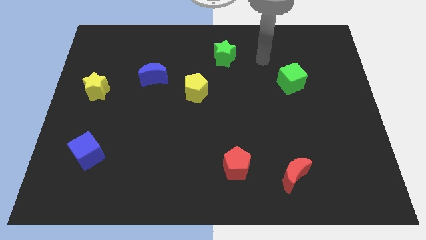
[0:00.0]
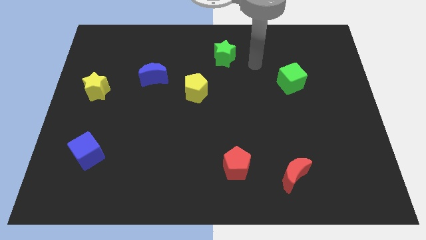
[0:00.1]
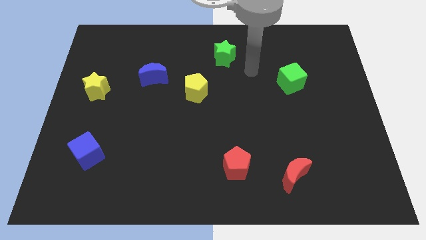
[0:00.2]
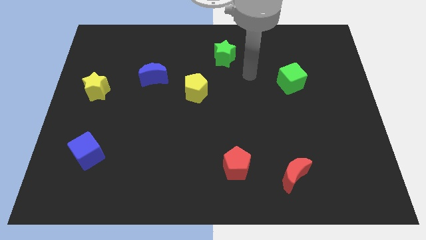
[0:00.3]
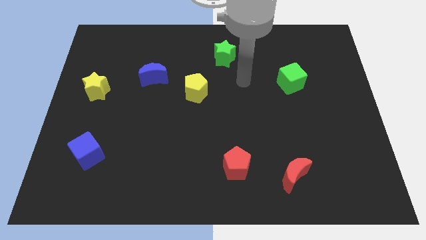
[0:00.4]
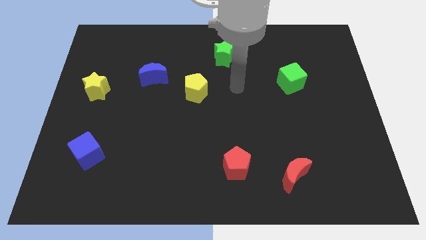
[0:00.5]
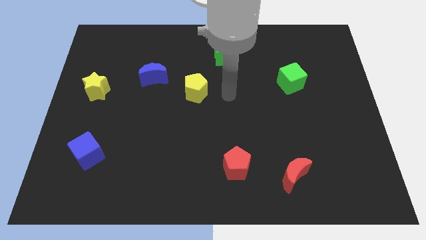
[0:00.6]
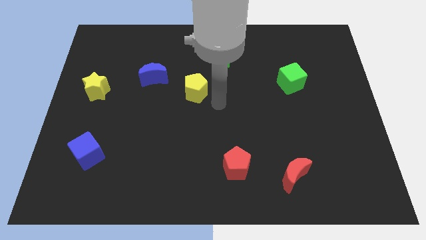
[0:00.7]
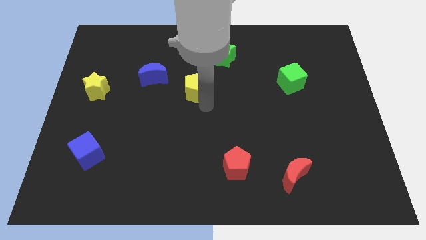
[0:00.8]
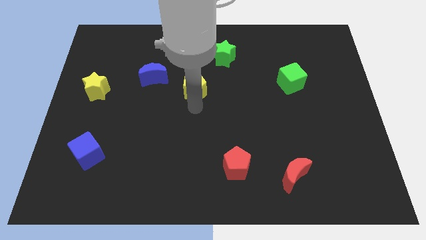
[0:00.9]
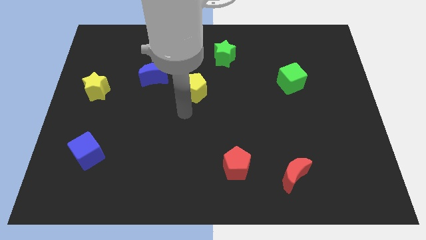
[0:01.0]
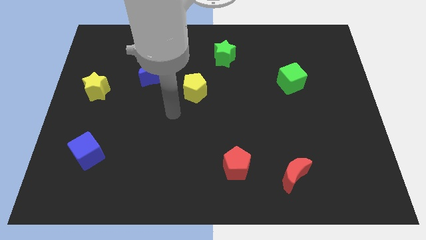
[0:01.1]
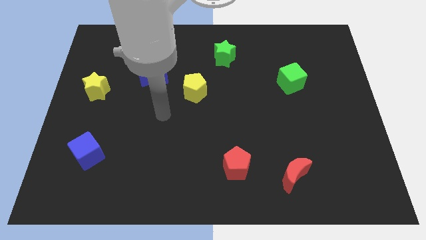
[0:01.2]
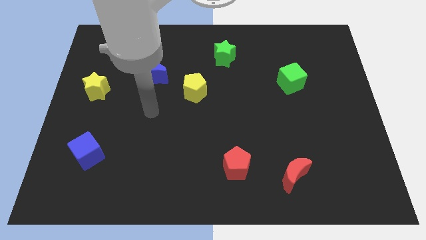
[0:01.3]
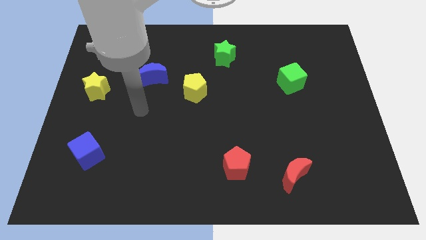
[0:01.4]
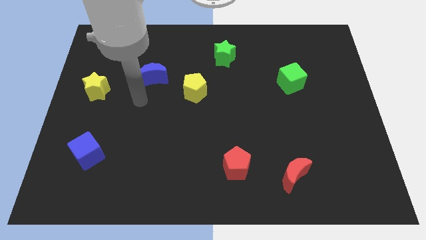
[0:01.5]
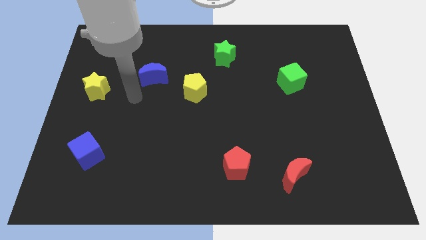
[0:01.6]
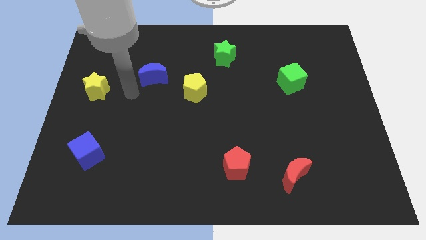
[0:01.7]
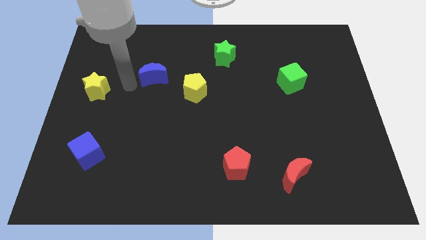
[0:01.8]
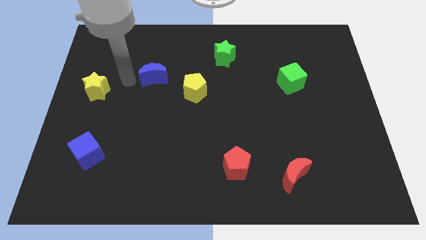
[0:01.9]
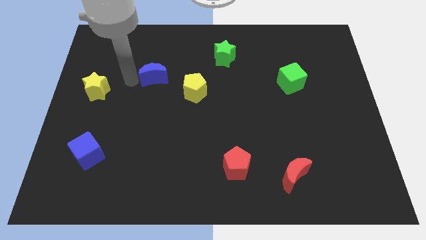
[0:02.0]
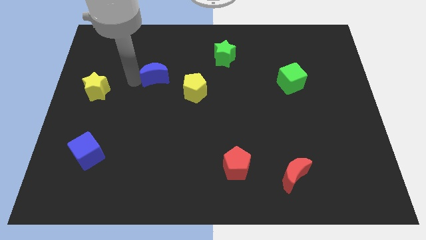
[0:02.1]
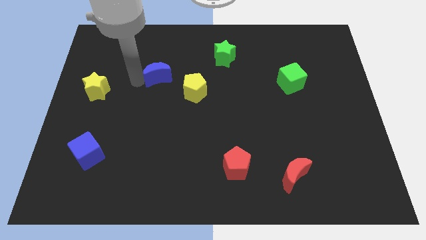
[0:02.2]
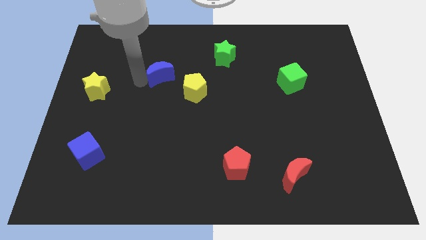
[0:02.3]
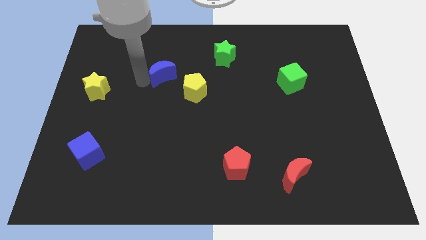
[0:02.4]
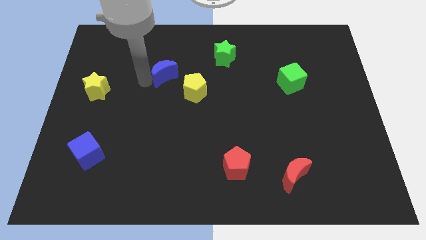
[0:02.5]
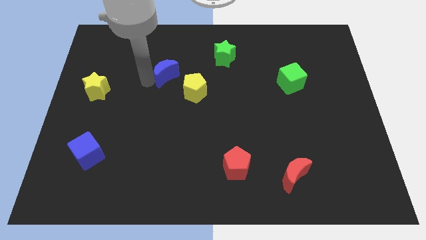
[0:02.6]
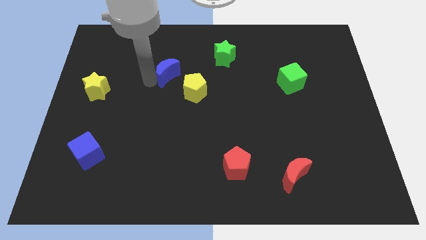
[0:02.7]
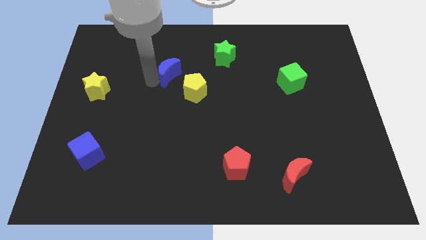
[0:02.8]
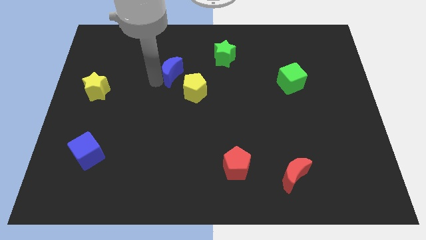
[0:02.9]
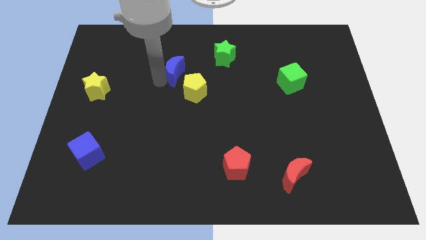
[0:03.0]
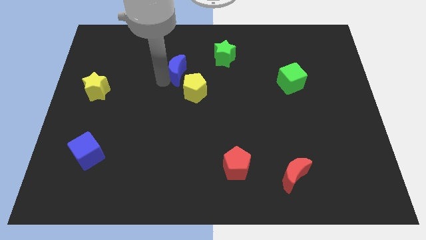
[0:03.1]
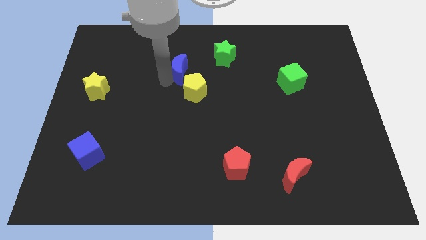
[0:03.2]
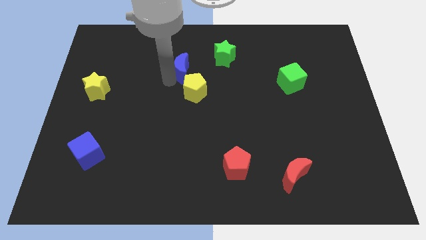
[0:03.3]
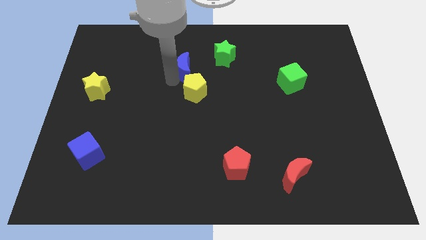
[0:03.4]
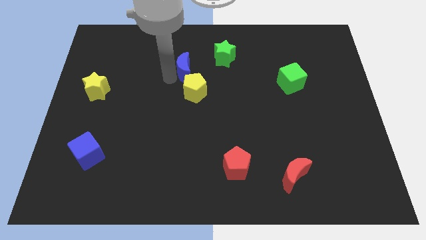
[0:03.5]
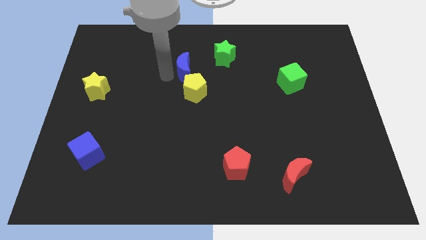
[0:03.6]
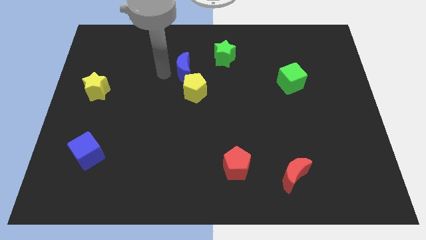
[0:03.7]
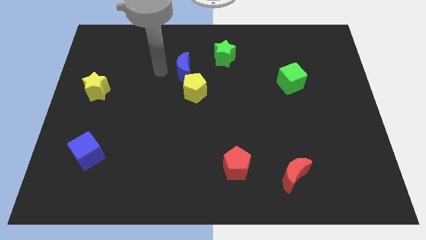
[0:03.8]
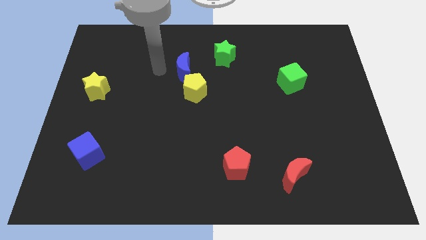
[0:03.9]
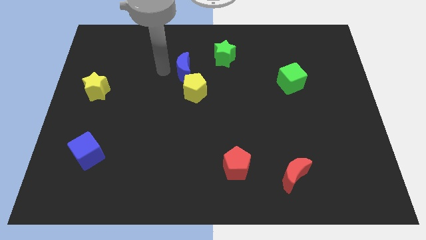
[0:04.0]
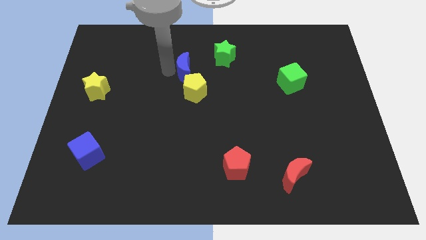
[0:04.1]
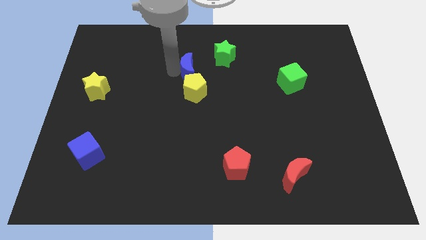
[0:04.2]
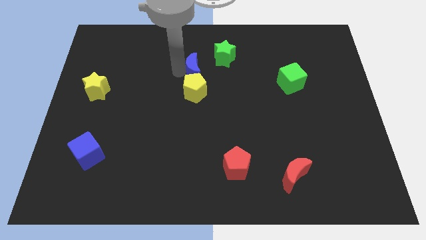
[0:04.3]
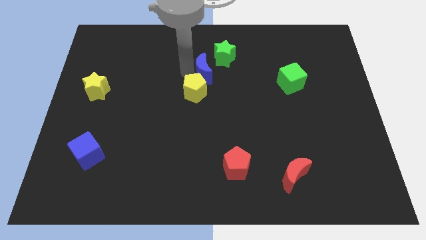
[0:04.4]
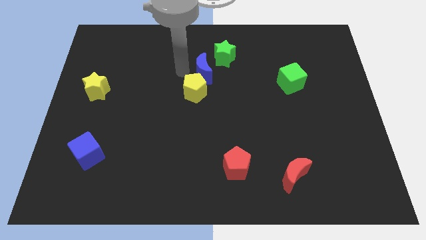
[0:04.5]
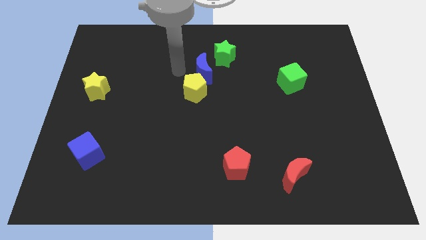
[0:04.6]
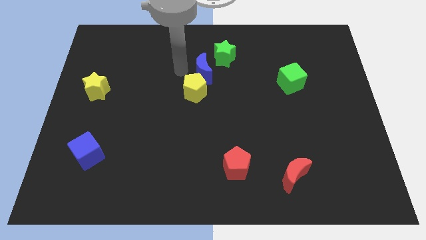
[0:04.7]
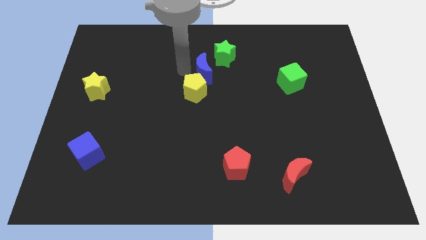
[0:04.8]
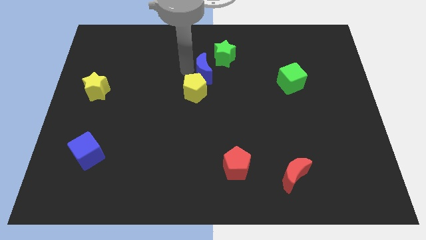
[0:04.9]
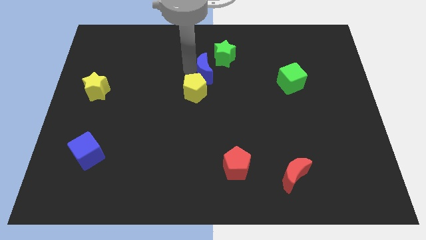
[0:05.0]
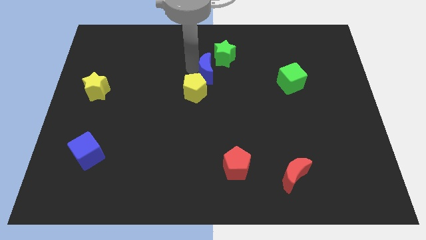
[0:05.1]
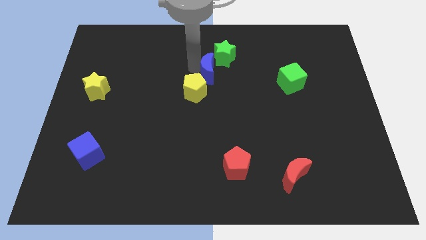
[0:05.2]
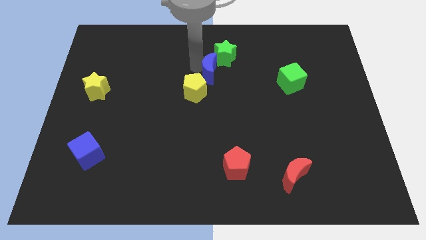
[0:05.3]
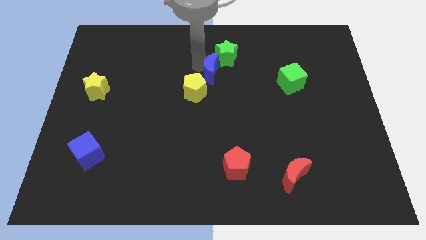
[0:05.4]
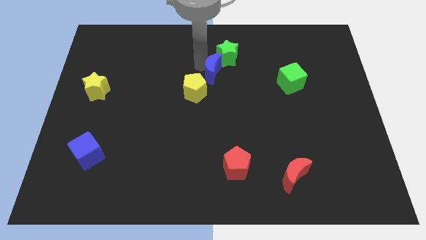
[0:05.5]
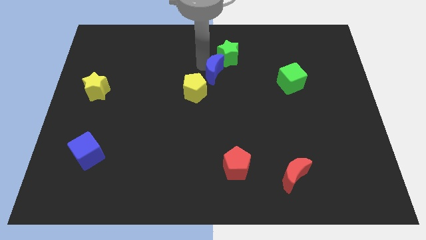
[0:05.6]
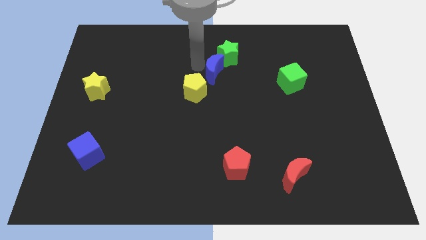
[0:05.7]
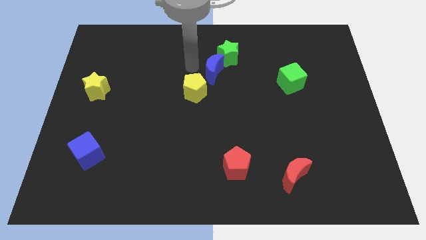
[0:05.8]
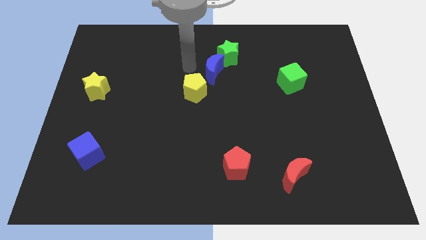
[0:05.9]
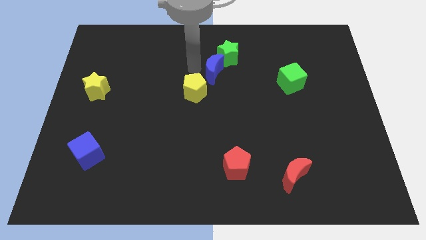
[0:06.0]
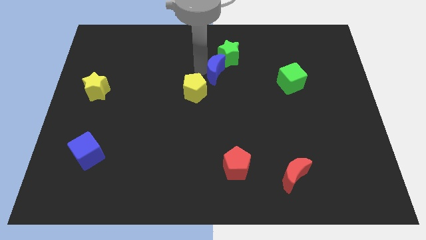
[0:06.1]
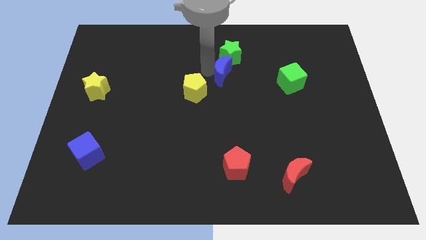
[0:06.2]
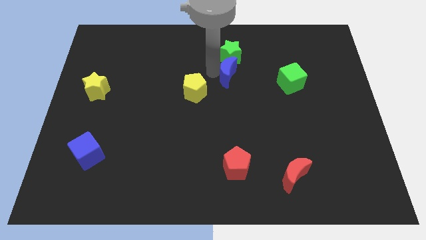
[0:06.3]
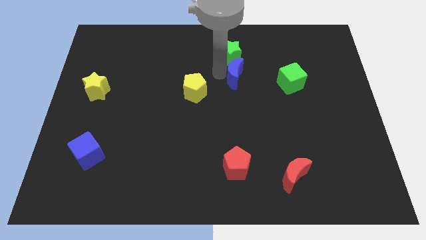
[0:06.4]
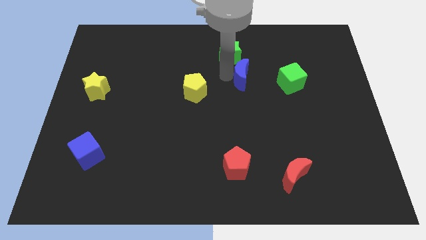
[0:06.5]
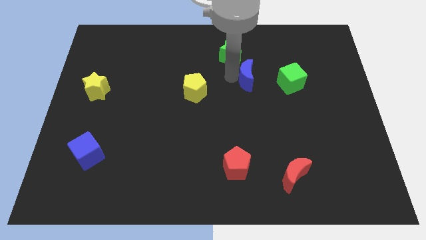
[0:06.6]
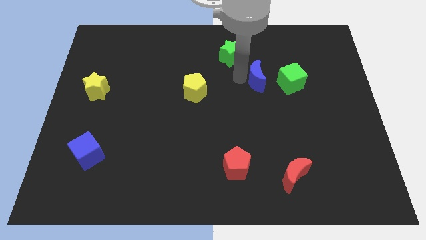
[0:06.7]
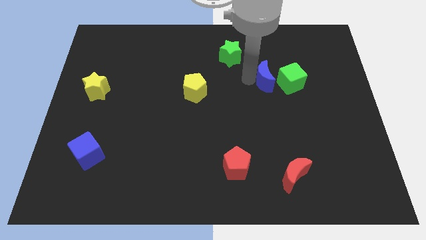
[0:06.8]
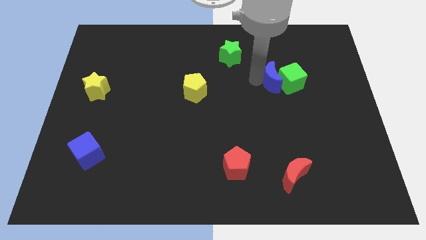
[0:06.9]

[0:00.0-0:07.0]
move the blue moon to the green cube

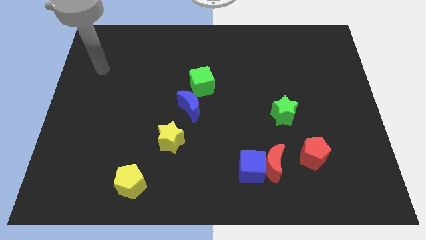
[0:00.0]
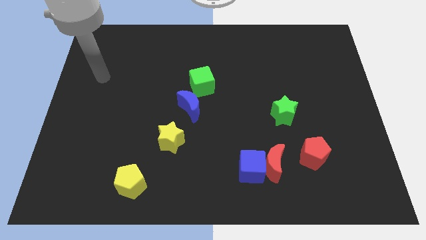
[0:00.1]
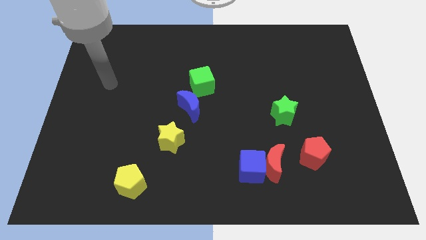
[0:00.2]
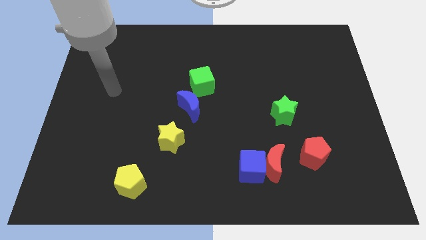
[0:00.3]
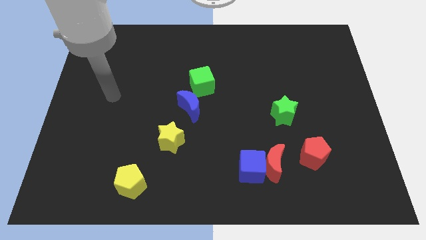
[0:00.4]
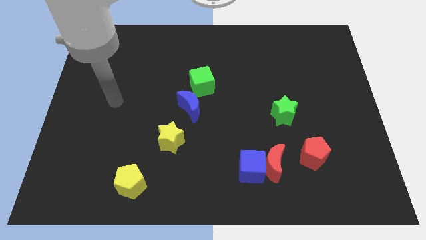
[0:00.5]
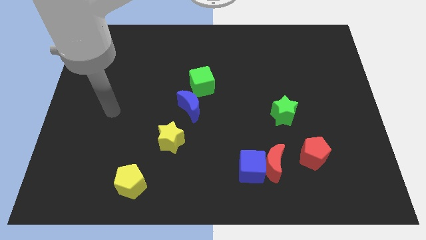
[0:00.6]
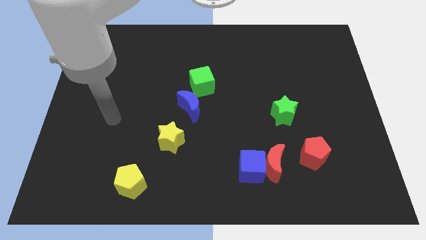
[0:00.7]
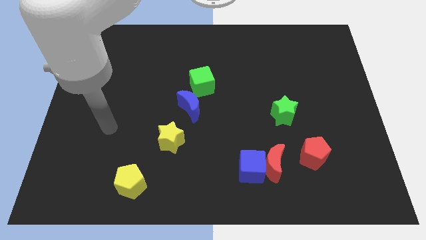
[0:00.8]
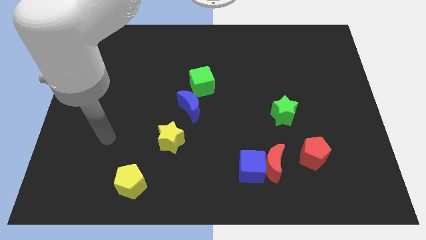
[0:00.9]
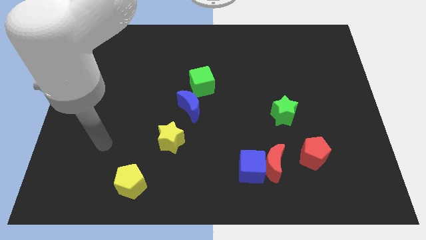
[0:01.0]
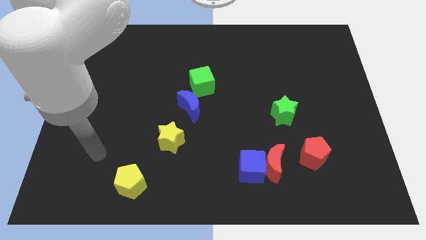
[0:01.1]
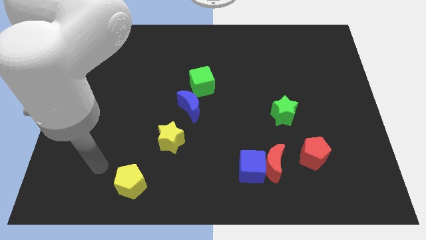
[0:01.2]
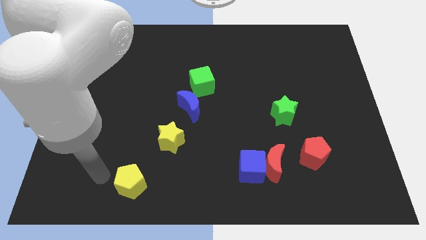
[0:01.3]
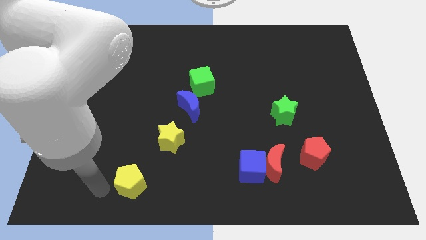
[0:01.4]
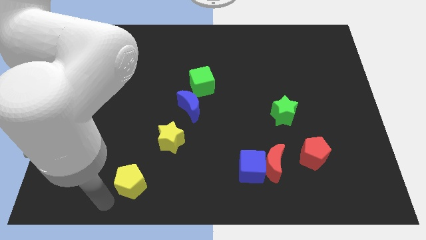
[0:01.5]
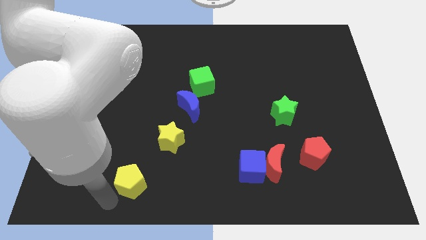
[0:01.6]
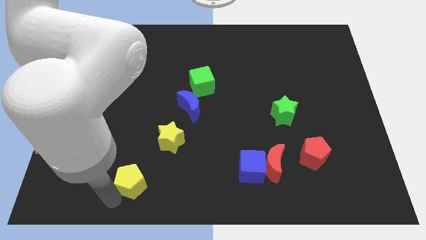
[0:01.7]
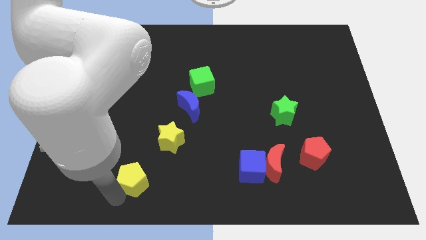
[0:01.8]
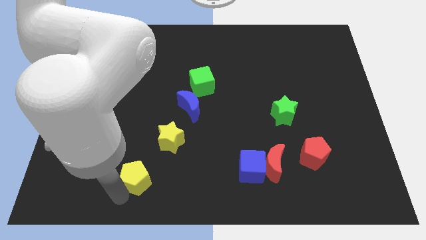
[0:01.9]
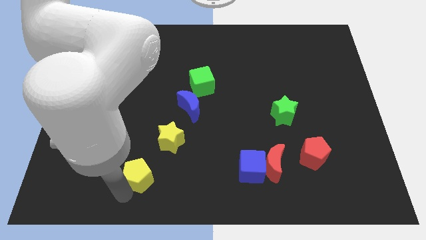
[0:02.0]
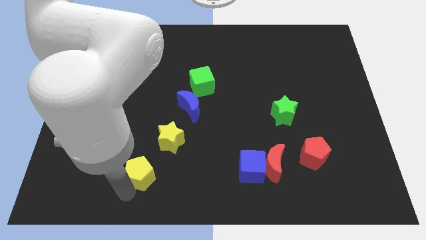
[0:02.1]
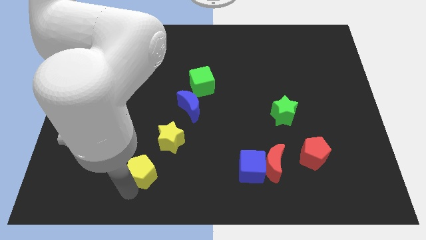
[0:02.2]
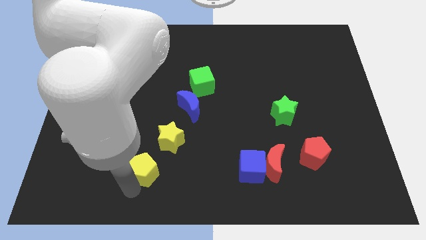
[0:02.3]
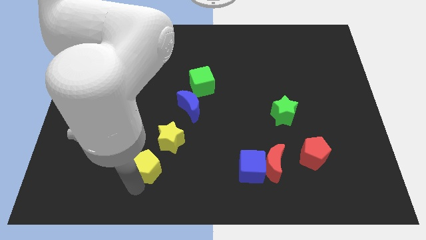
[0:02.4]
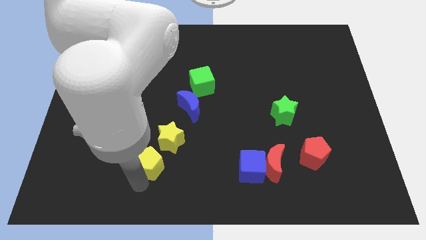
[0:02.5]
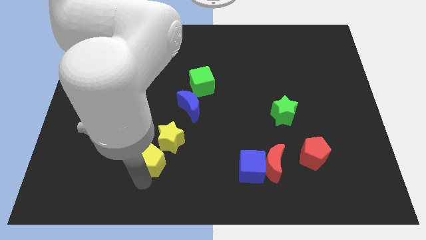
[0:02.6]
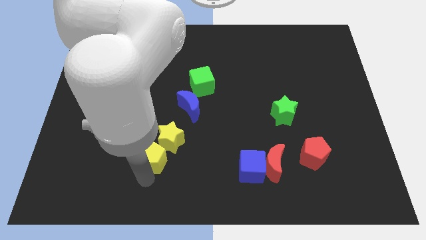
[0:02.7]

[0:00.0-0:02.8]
move the yellow pentagon to the yellow star
